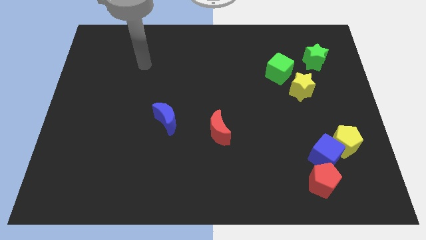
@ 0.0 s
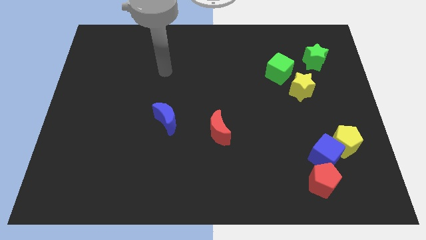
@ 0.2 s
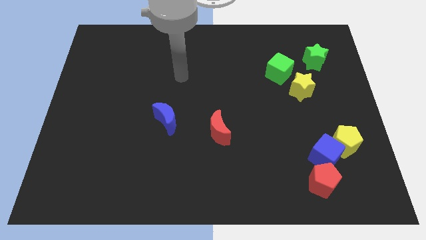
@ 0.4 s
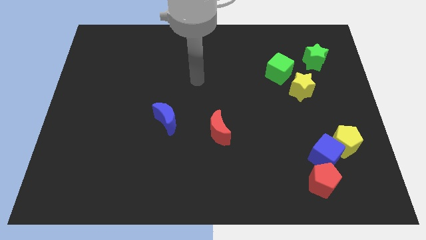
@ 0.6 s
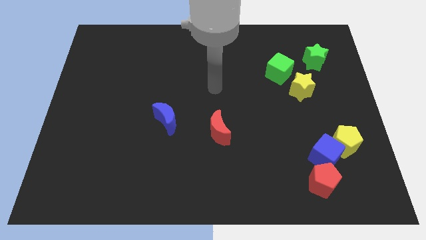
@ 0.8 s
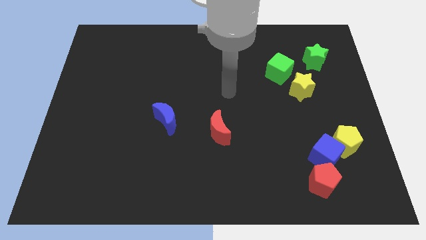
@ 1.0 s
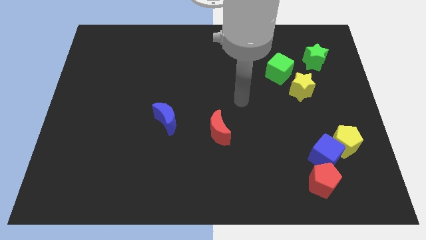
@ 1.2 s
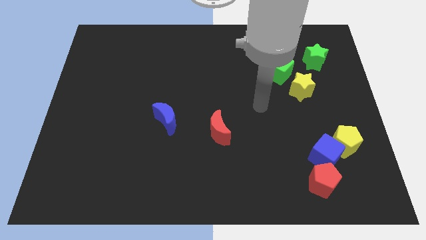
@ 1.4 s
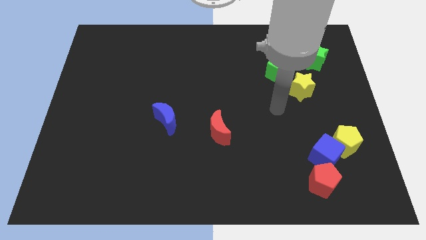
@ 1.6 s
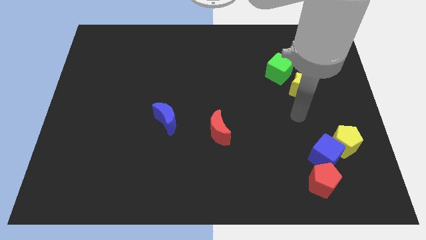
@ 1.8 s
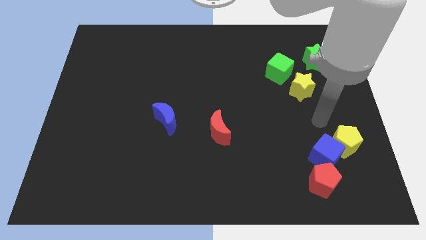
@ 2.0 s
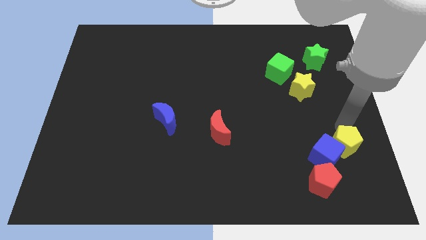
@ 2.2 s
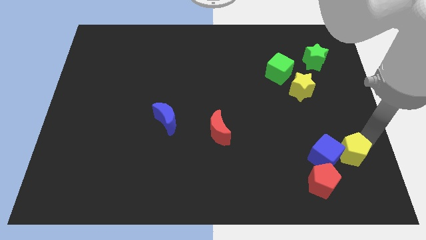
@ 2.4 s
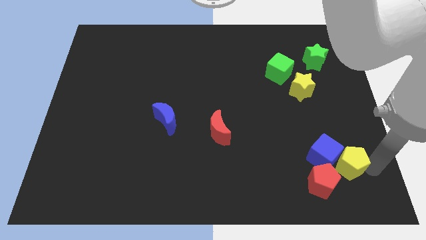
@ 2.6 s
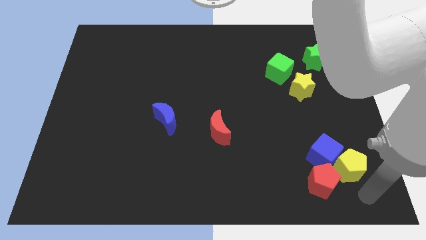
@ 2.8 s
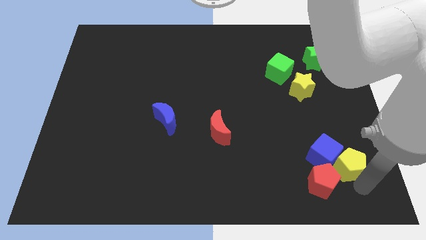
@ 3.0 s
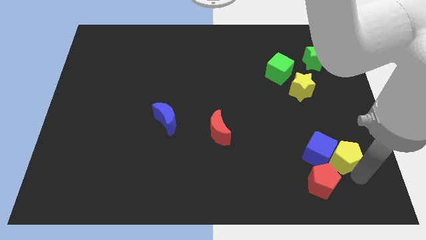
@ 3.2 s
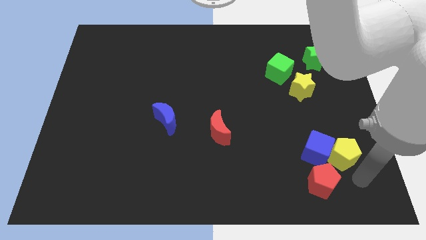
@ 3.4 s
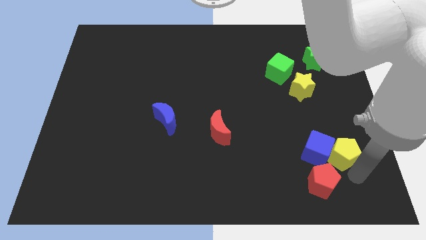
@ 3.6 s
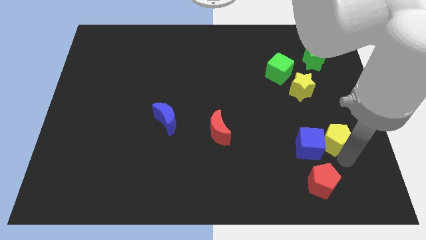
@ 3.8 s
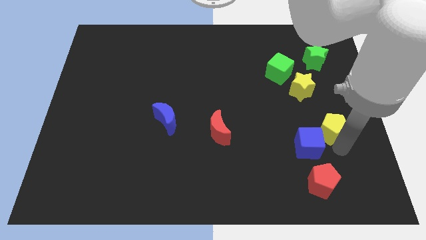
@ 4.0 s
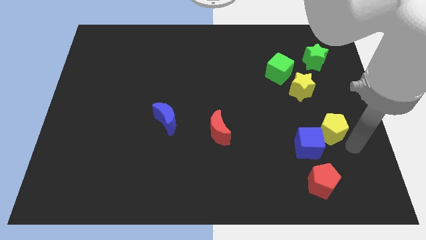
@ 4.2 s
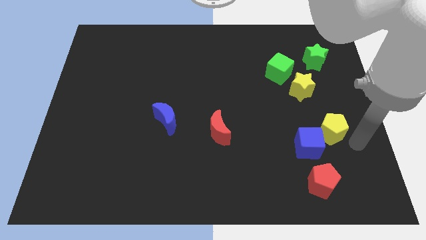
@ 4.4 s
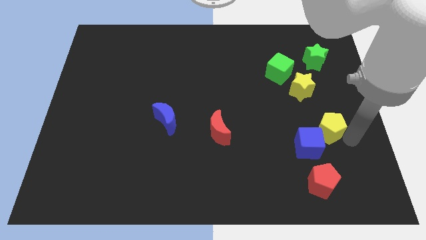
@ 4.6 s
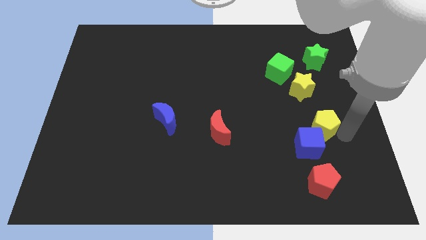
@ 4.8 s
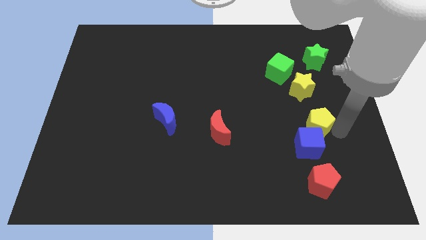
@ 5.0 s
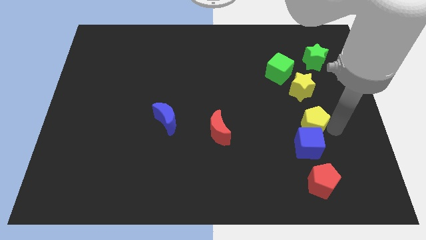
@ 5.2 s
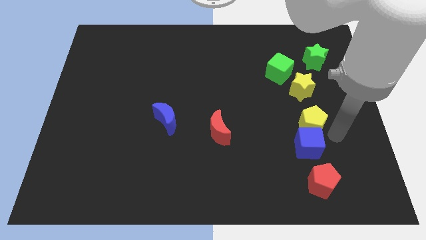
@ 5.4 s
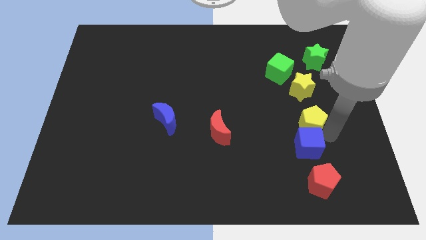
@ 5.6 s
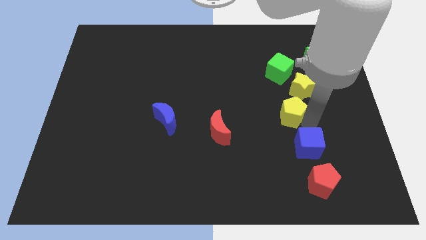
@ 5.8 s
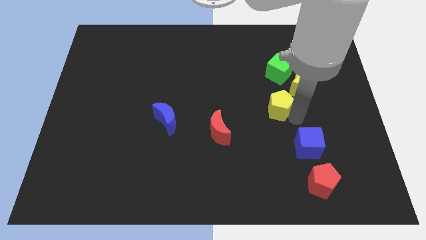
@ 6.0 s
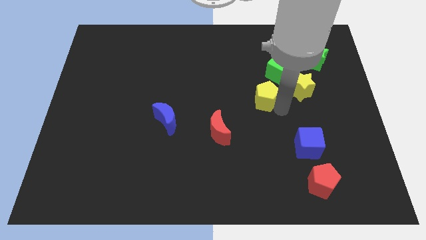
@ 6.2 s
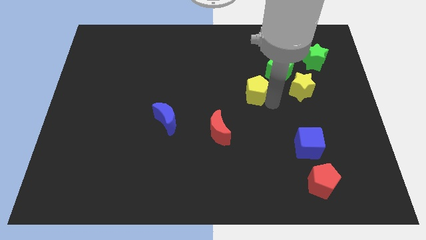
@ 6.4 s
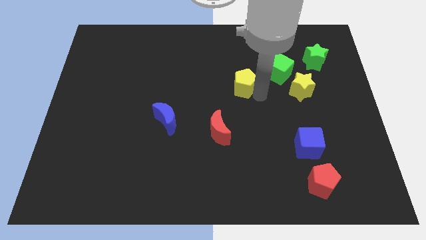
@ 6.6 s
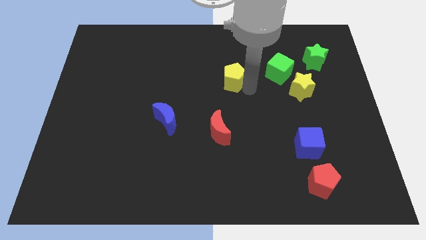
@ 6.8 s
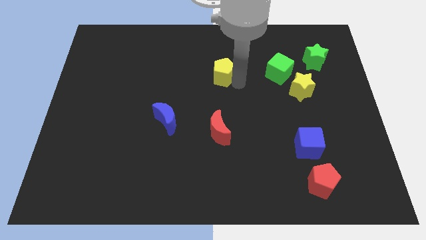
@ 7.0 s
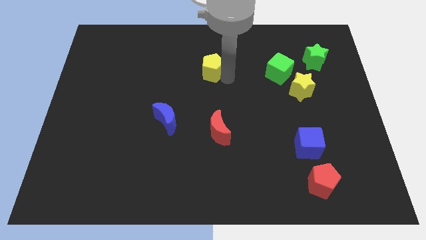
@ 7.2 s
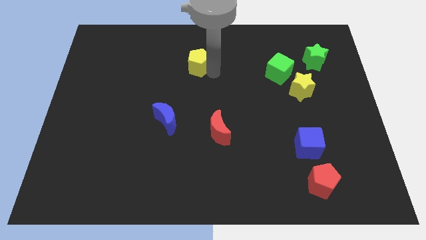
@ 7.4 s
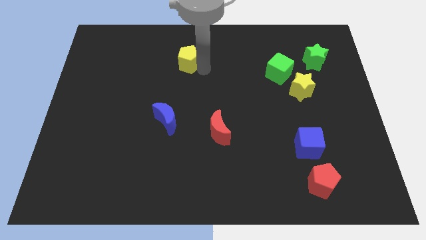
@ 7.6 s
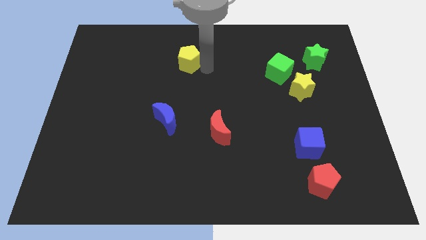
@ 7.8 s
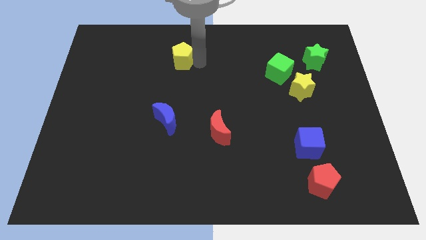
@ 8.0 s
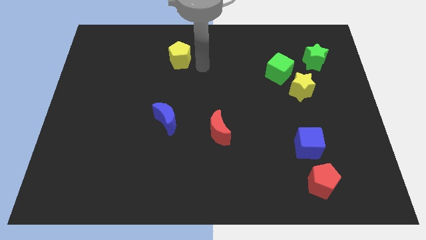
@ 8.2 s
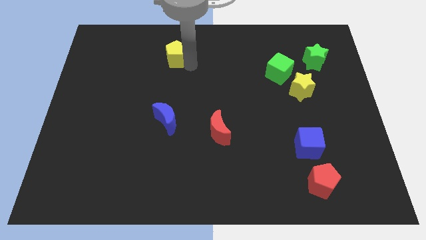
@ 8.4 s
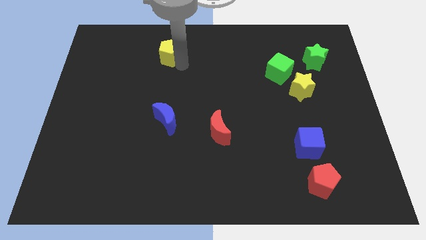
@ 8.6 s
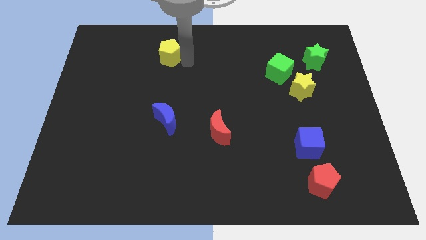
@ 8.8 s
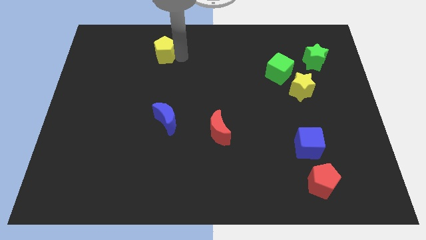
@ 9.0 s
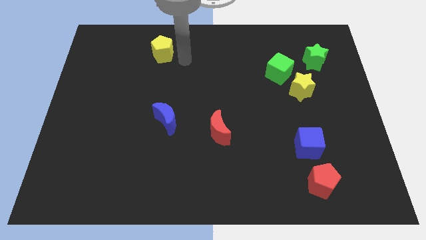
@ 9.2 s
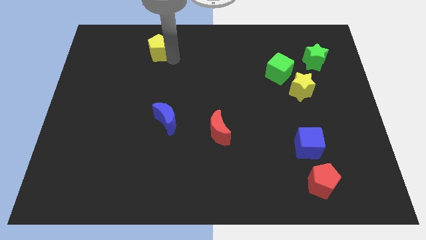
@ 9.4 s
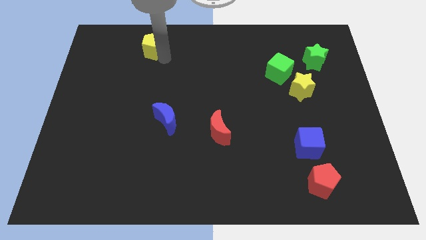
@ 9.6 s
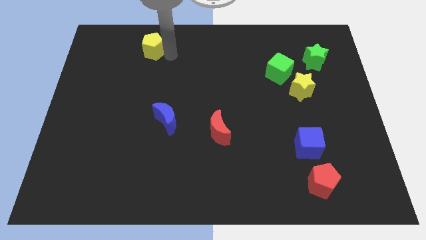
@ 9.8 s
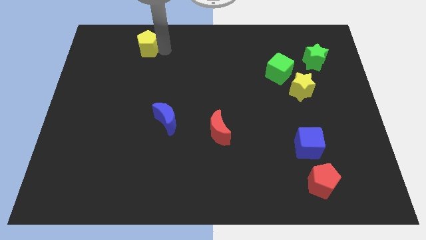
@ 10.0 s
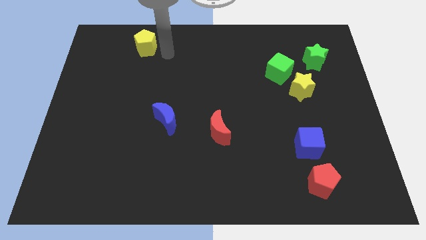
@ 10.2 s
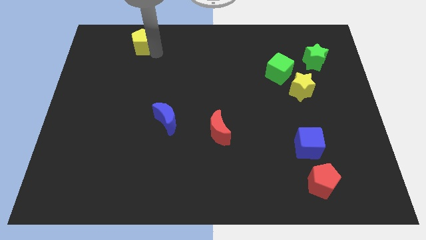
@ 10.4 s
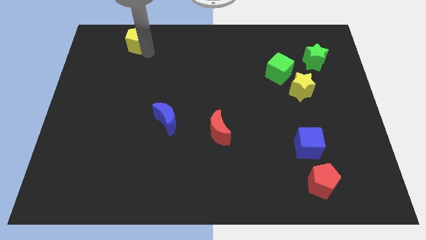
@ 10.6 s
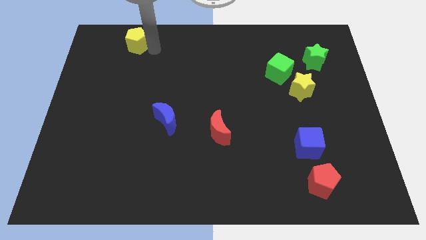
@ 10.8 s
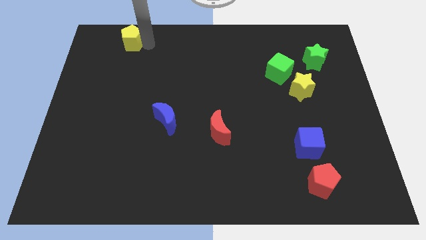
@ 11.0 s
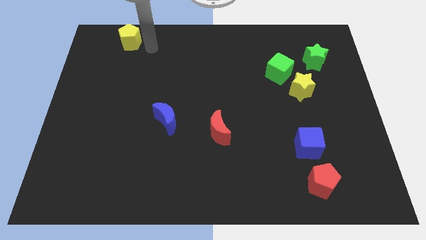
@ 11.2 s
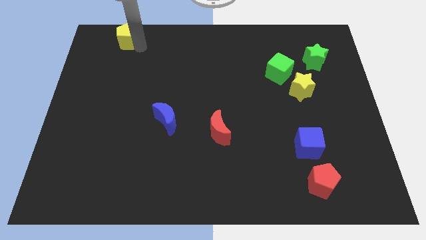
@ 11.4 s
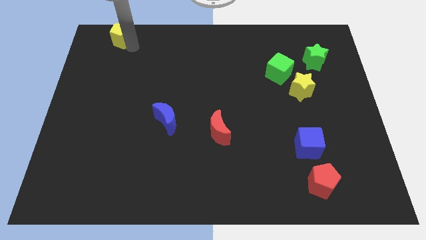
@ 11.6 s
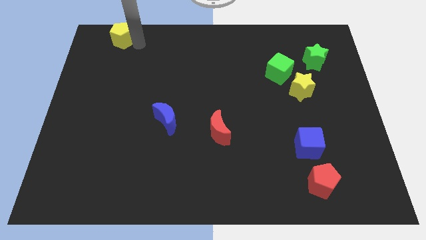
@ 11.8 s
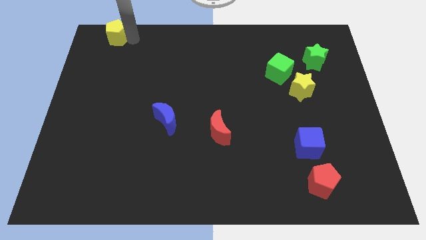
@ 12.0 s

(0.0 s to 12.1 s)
push the yellow pentagon to the top left
